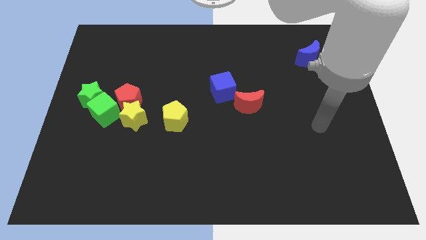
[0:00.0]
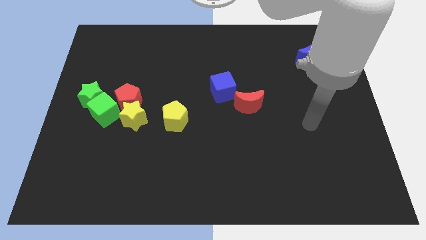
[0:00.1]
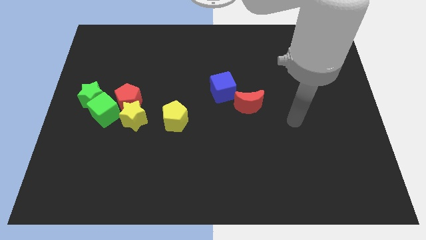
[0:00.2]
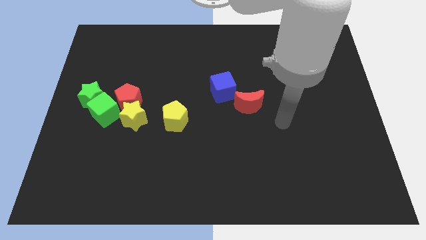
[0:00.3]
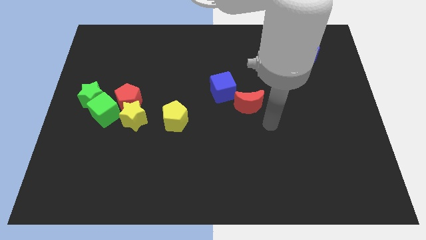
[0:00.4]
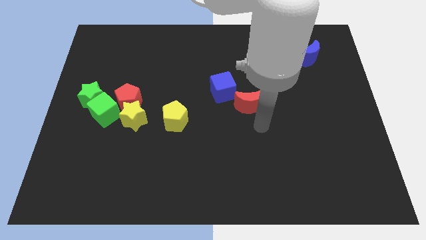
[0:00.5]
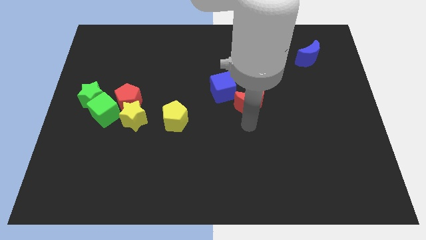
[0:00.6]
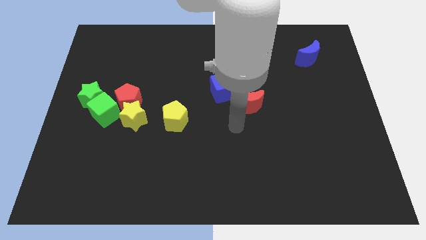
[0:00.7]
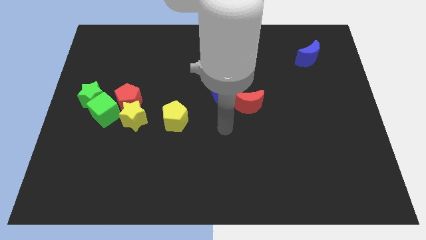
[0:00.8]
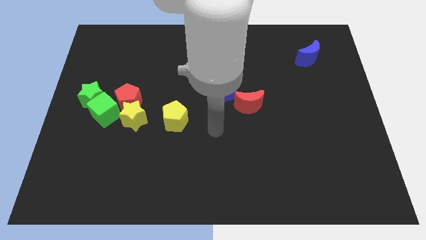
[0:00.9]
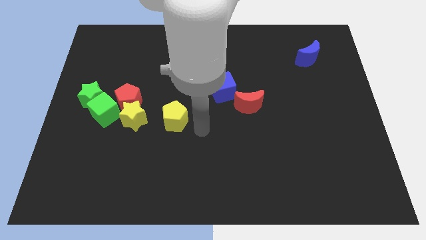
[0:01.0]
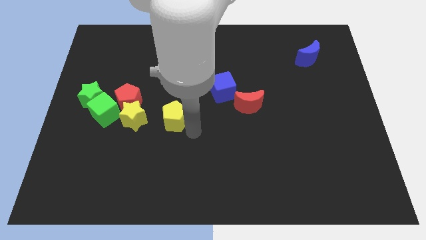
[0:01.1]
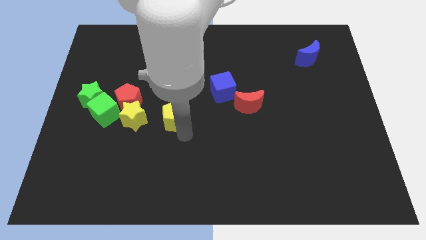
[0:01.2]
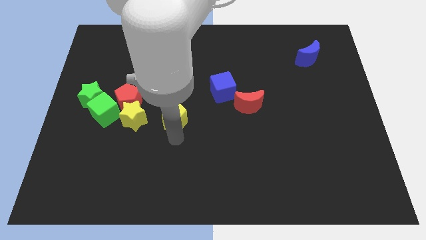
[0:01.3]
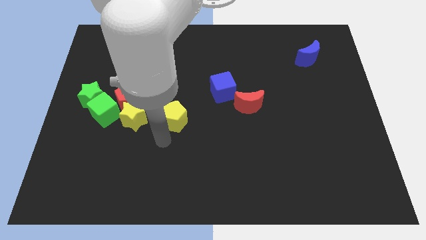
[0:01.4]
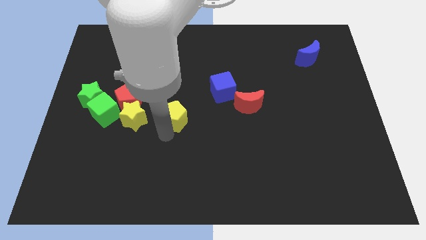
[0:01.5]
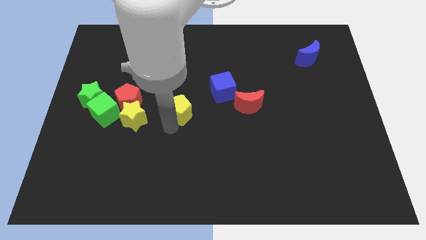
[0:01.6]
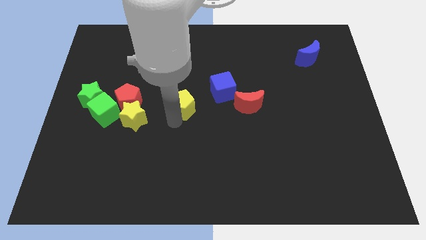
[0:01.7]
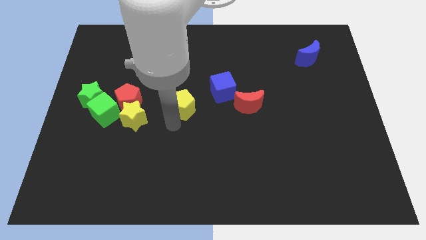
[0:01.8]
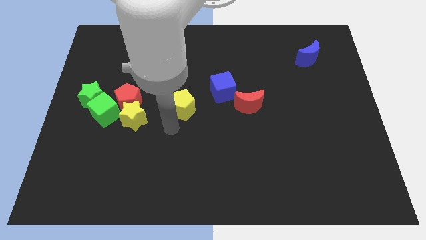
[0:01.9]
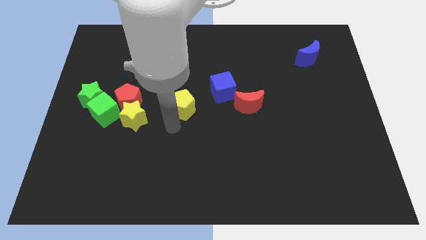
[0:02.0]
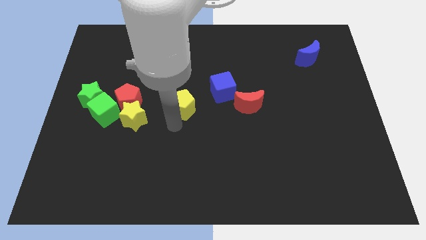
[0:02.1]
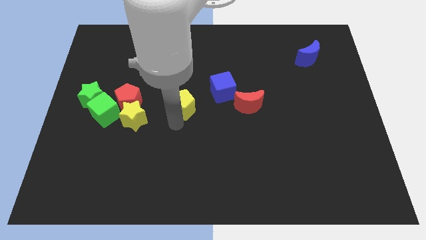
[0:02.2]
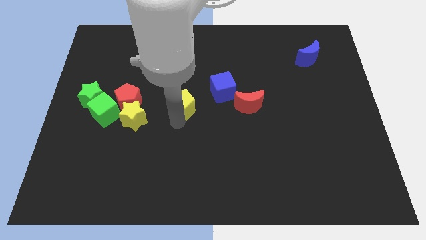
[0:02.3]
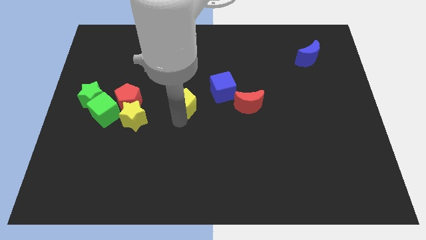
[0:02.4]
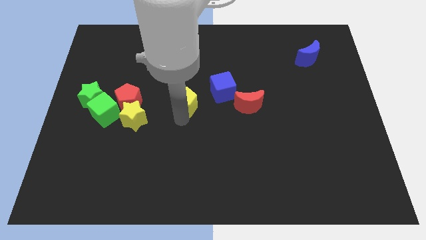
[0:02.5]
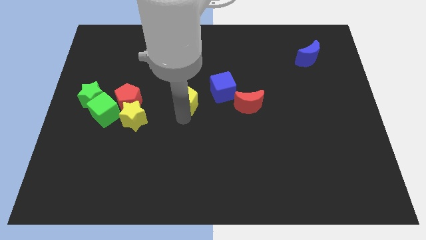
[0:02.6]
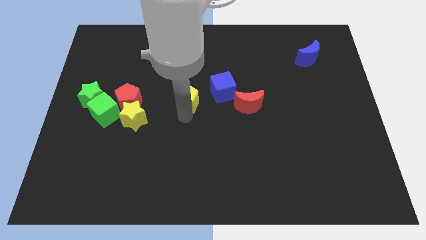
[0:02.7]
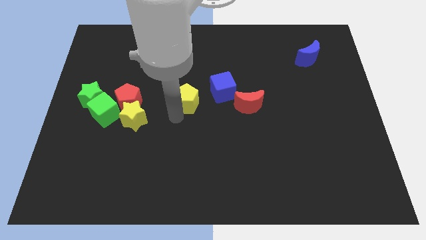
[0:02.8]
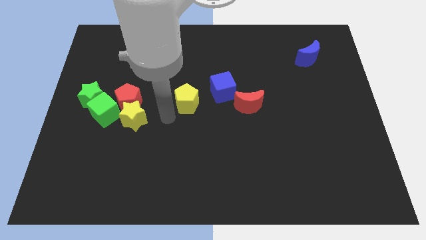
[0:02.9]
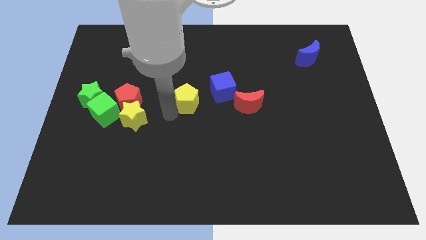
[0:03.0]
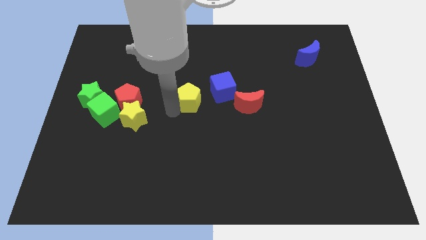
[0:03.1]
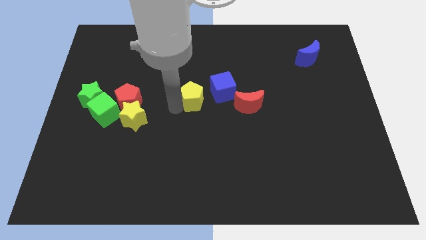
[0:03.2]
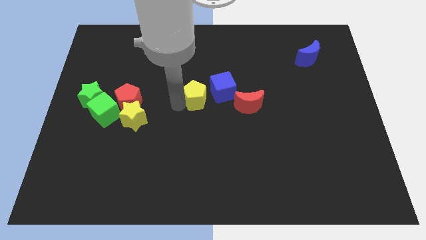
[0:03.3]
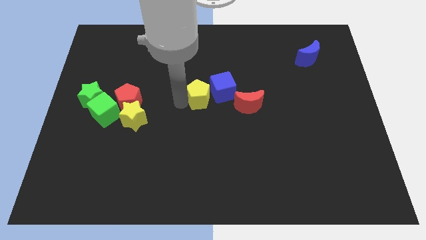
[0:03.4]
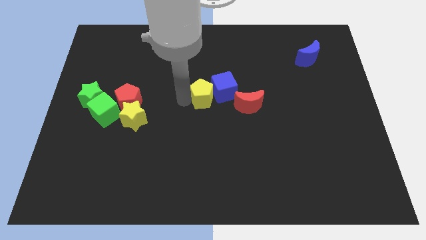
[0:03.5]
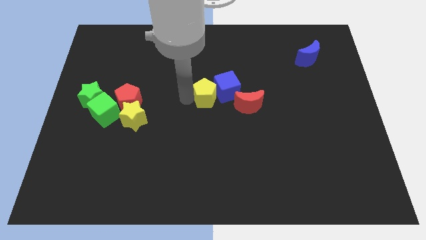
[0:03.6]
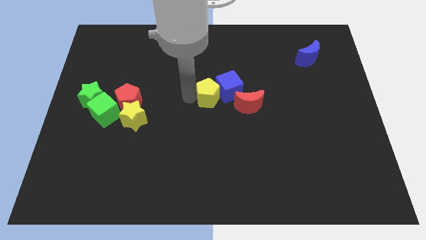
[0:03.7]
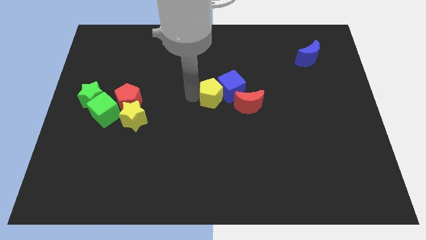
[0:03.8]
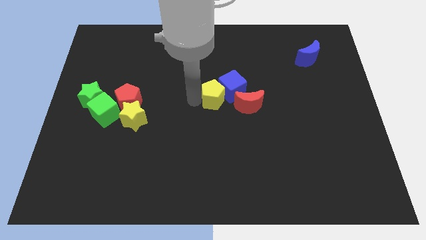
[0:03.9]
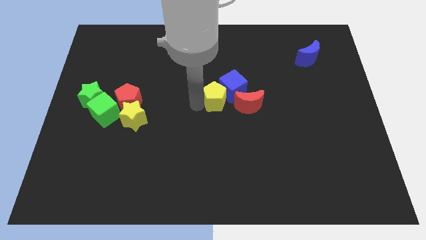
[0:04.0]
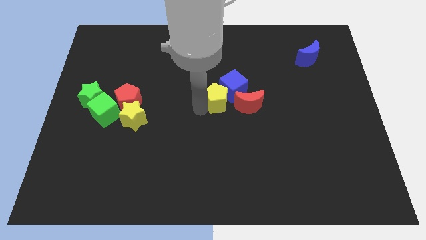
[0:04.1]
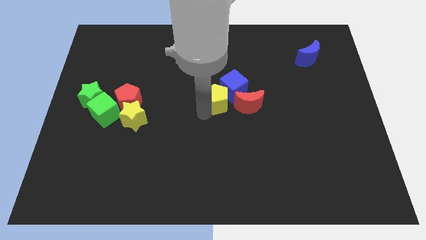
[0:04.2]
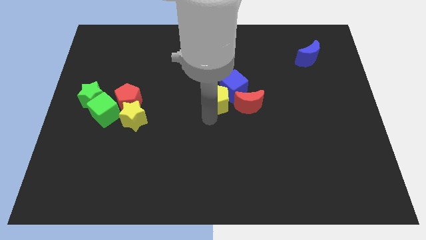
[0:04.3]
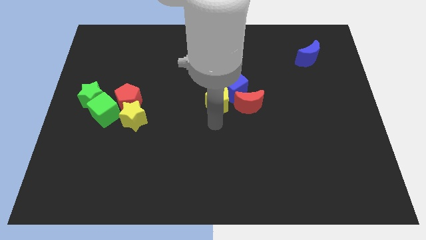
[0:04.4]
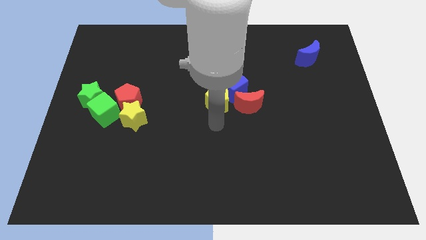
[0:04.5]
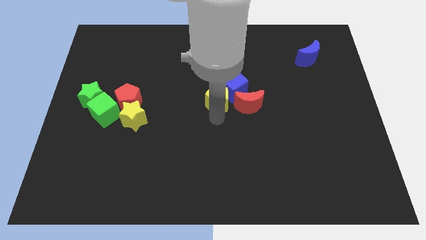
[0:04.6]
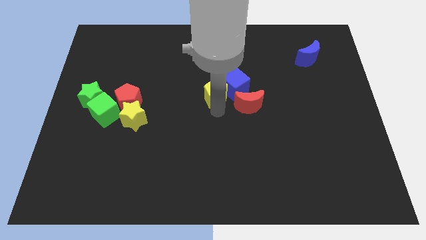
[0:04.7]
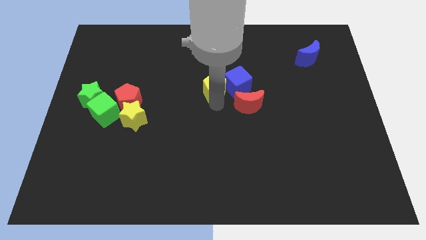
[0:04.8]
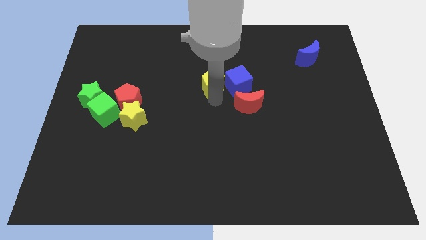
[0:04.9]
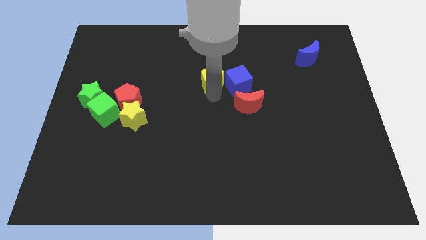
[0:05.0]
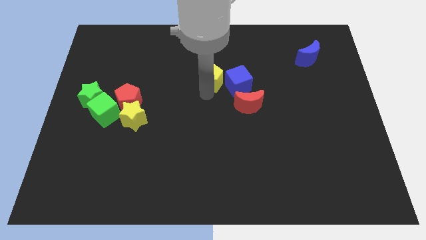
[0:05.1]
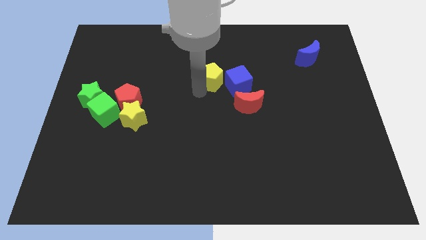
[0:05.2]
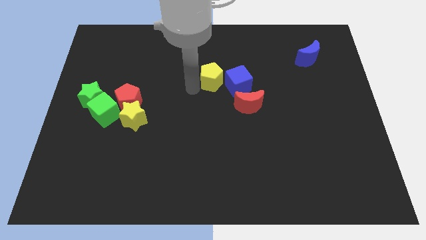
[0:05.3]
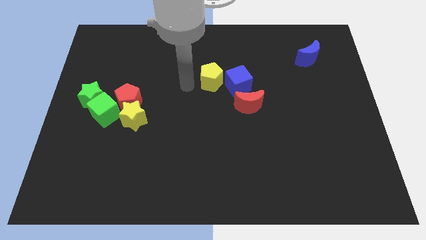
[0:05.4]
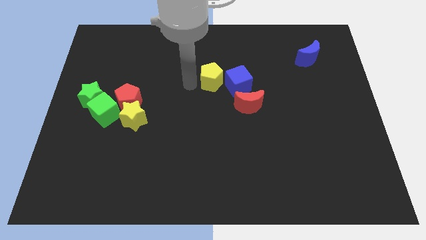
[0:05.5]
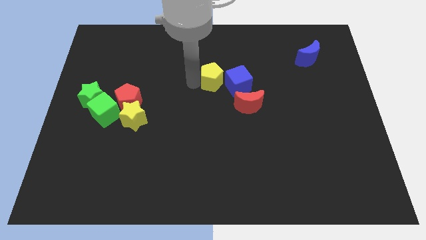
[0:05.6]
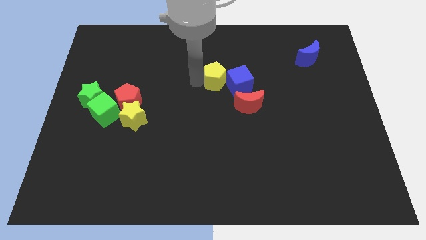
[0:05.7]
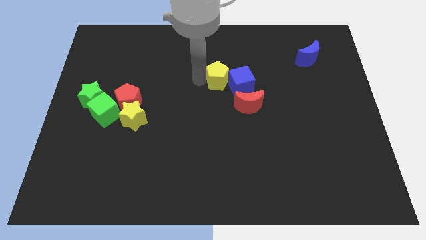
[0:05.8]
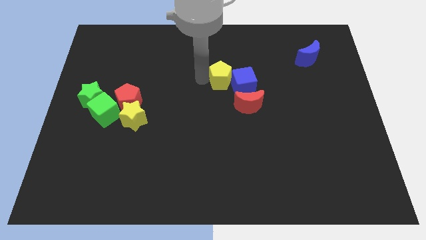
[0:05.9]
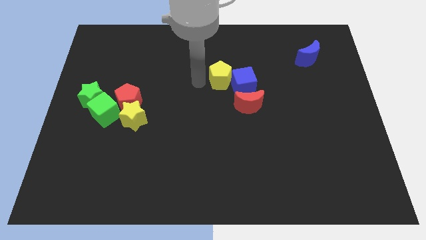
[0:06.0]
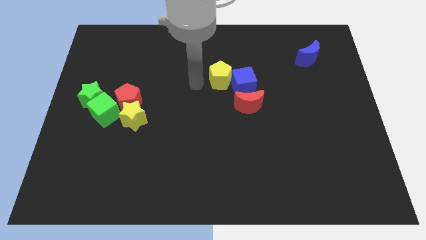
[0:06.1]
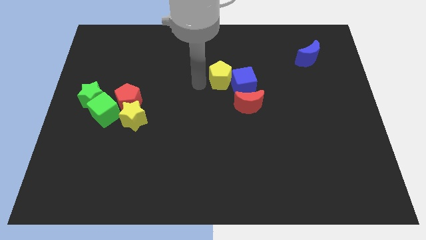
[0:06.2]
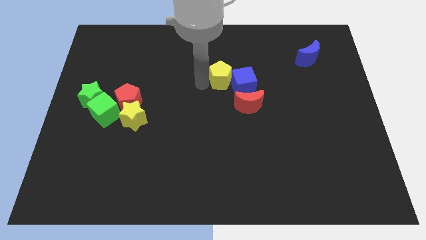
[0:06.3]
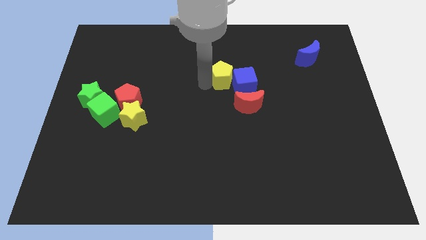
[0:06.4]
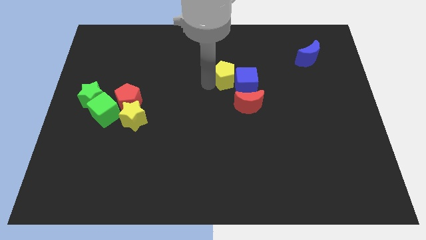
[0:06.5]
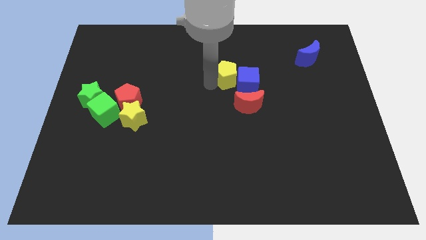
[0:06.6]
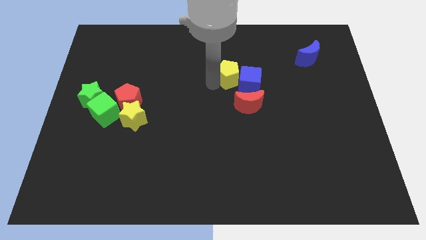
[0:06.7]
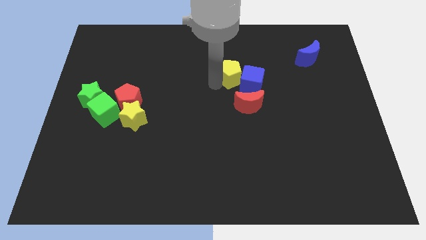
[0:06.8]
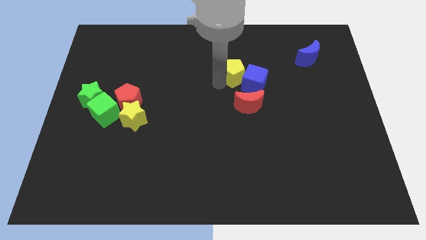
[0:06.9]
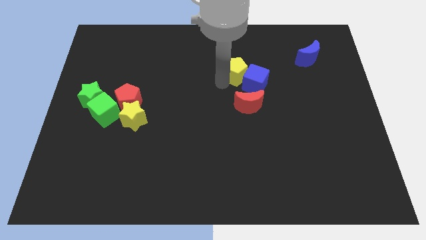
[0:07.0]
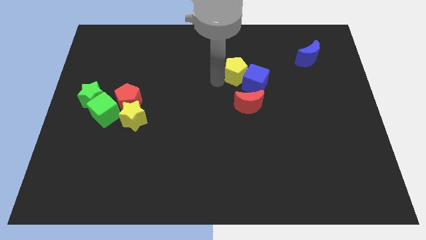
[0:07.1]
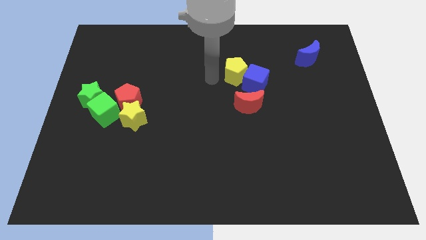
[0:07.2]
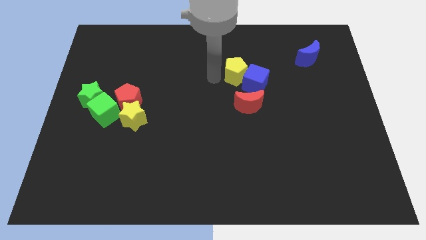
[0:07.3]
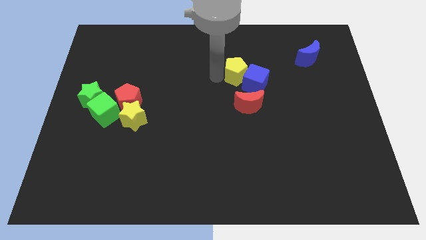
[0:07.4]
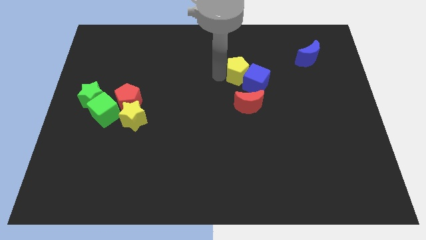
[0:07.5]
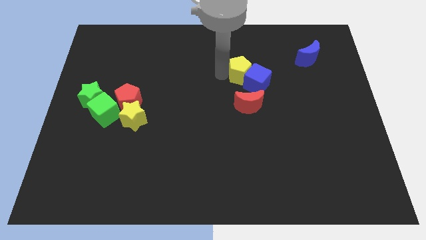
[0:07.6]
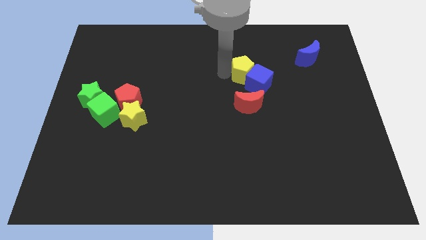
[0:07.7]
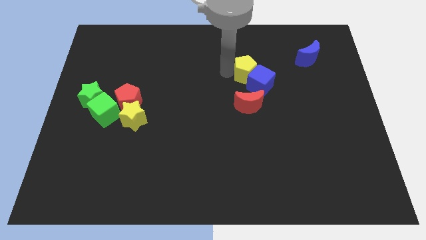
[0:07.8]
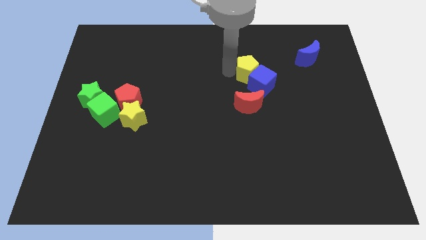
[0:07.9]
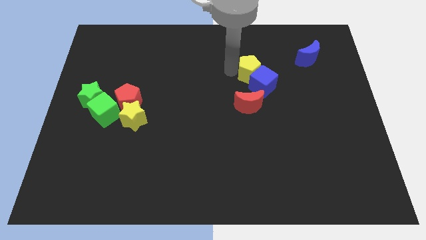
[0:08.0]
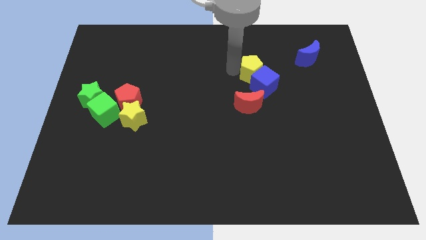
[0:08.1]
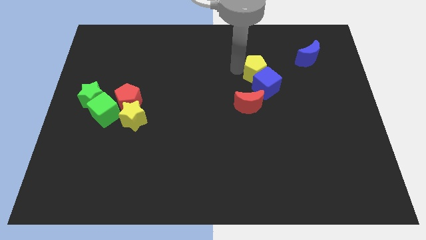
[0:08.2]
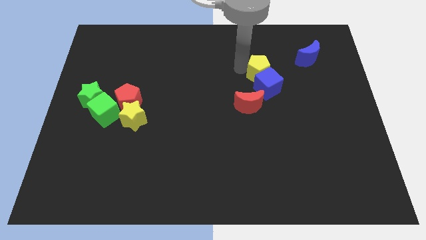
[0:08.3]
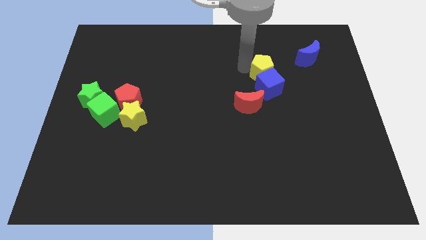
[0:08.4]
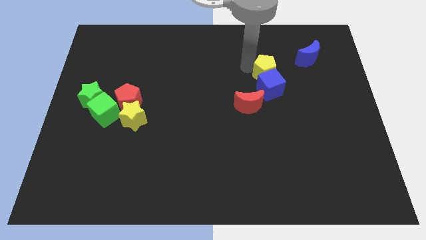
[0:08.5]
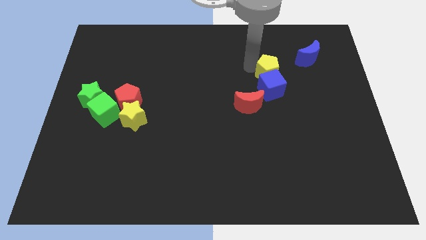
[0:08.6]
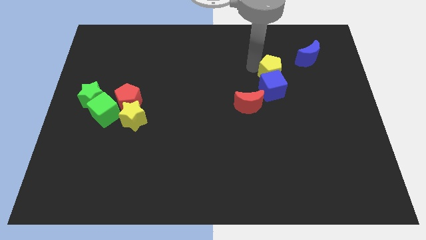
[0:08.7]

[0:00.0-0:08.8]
push the yellow pentagon diagonally down and to the left of the blue moon
